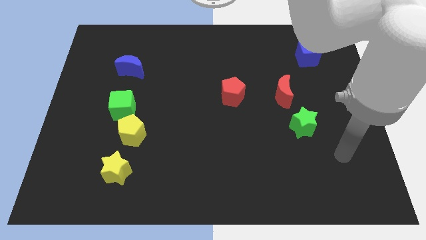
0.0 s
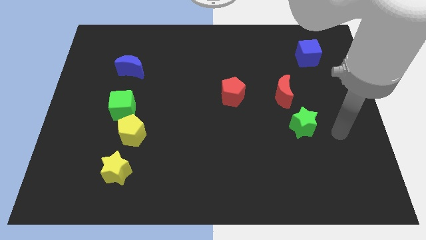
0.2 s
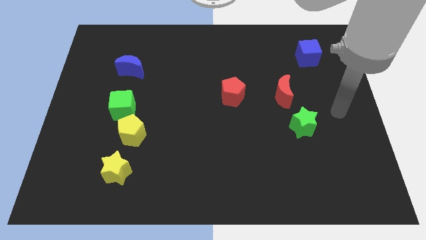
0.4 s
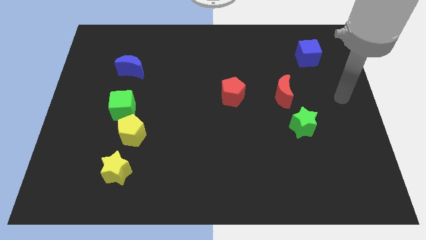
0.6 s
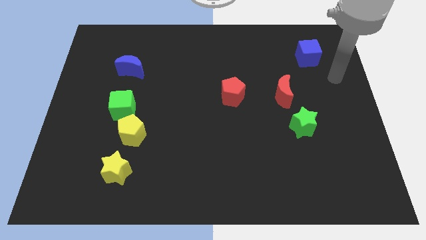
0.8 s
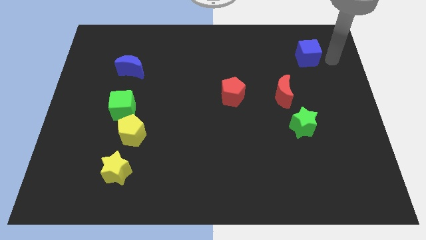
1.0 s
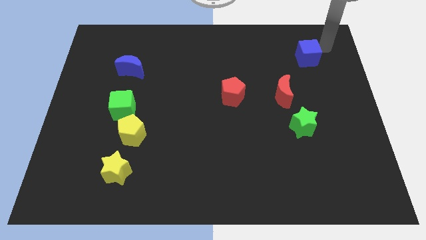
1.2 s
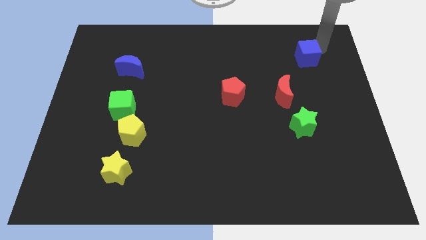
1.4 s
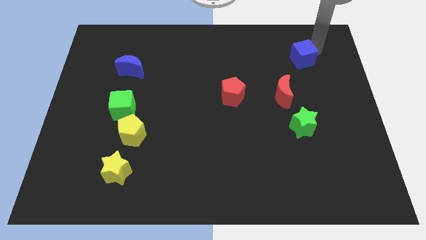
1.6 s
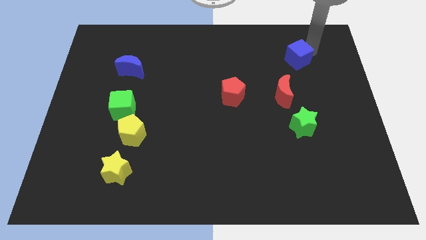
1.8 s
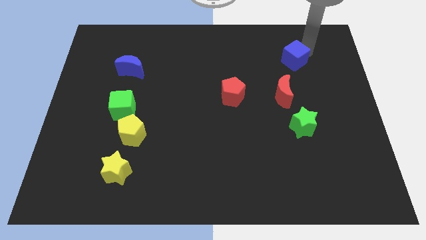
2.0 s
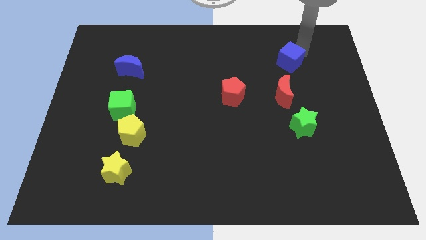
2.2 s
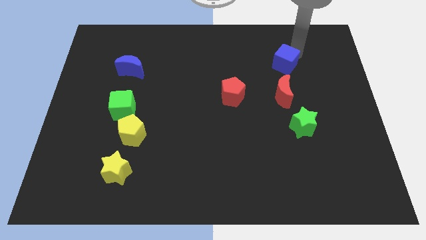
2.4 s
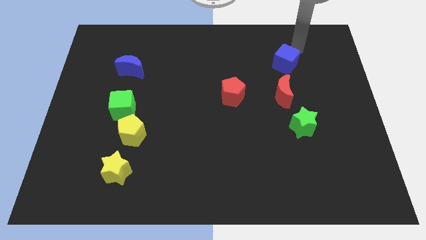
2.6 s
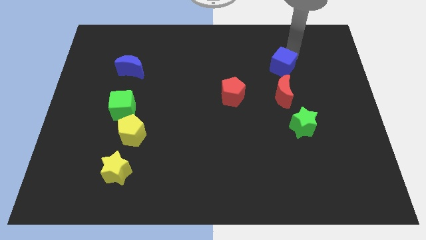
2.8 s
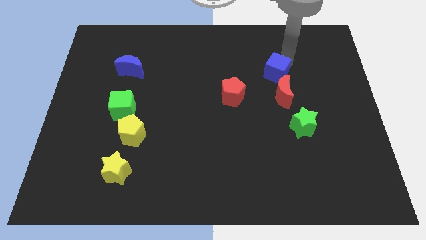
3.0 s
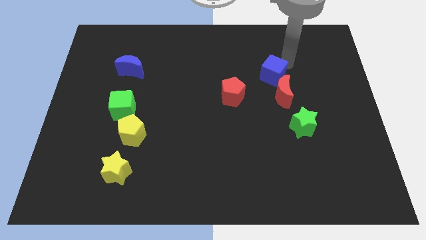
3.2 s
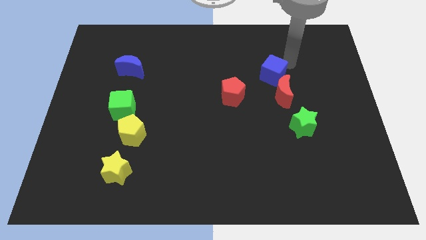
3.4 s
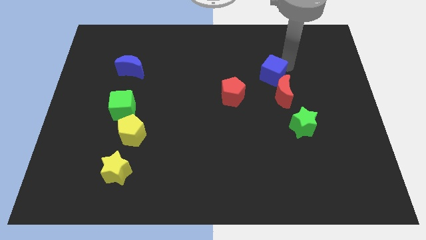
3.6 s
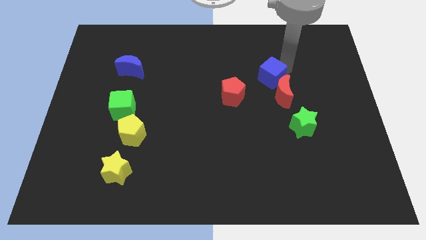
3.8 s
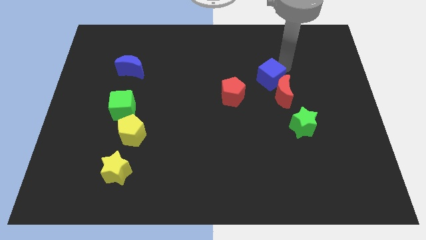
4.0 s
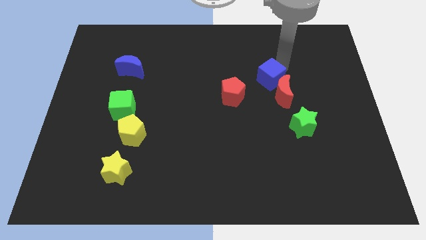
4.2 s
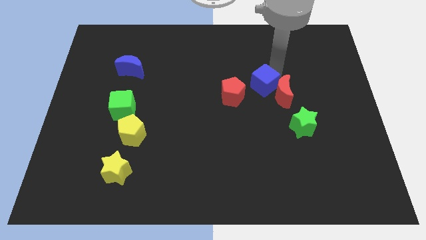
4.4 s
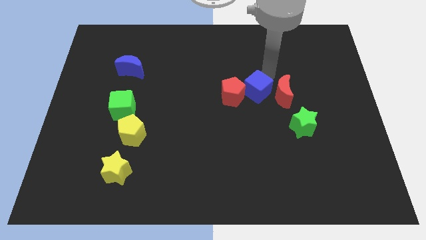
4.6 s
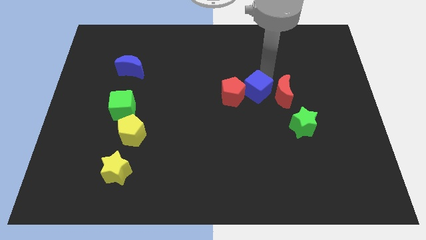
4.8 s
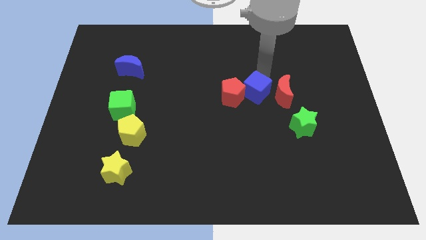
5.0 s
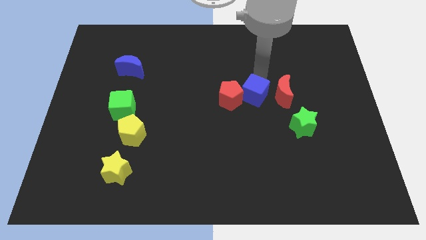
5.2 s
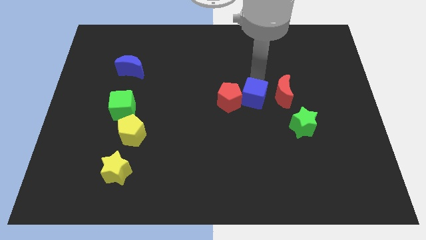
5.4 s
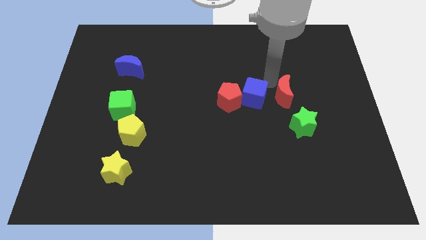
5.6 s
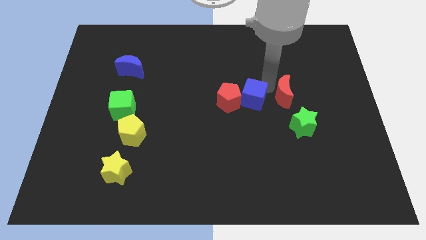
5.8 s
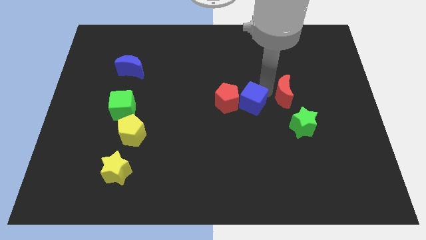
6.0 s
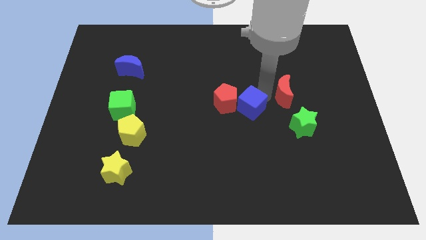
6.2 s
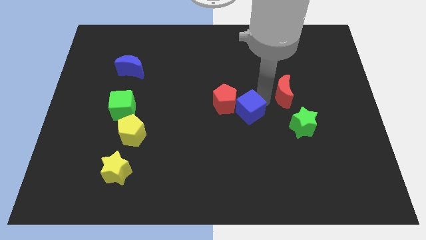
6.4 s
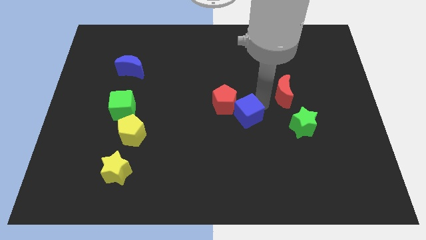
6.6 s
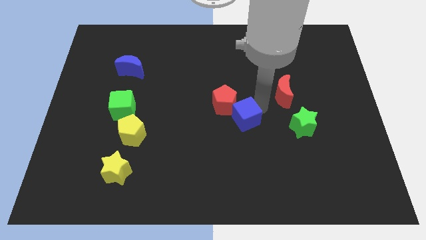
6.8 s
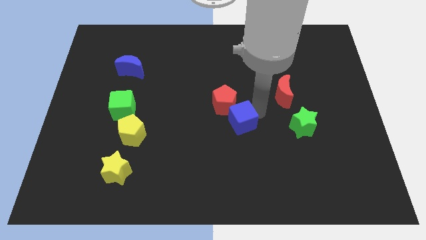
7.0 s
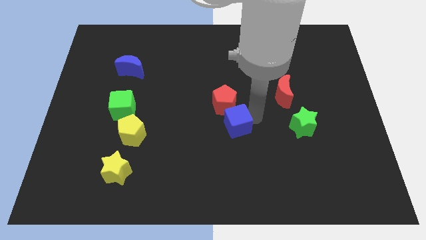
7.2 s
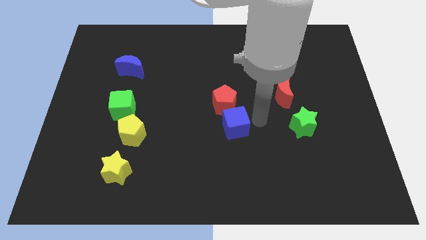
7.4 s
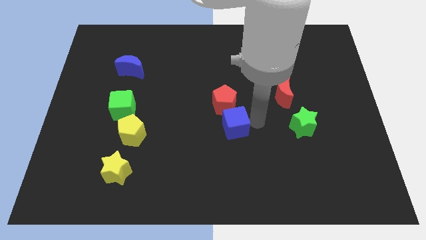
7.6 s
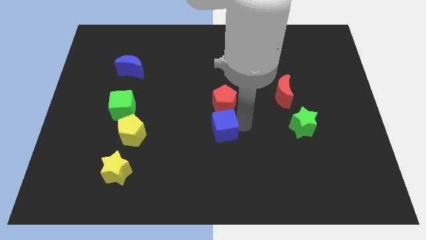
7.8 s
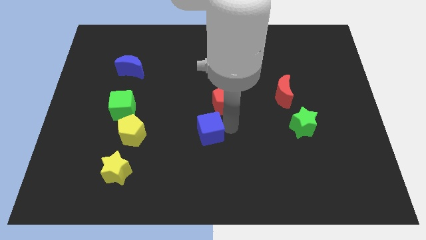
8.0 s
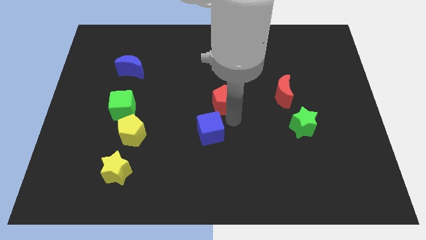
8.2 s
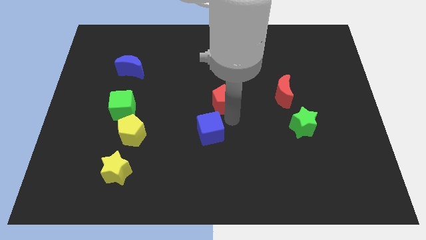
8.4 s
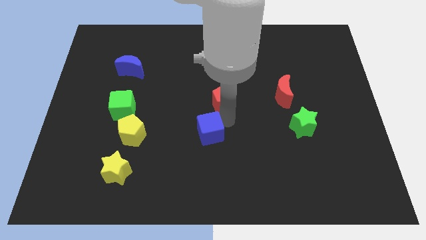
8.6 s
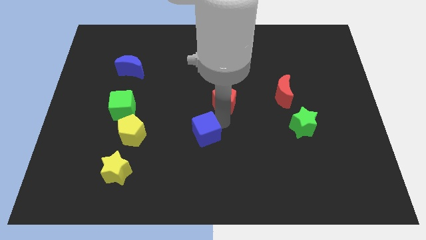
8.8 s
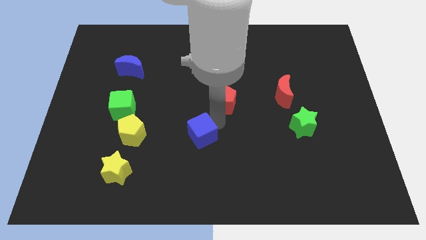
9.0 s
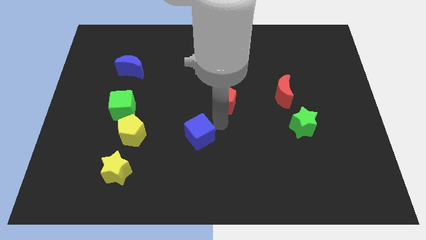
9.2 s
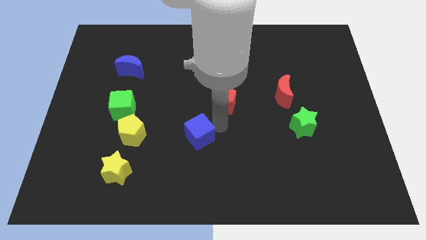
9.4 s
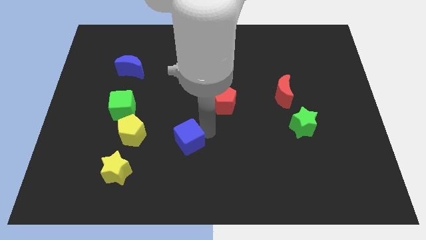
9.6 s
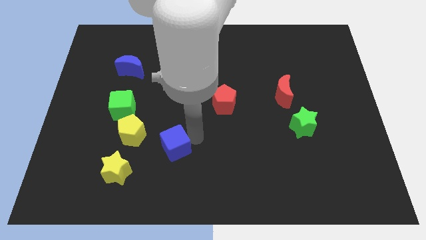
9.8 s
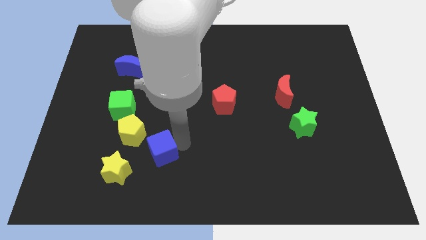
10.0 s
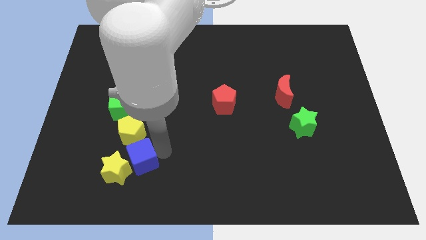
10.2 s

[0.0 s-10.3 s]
move the blue cube next to the yellow star

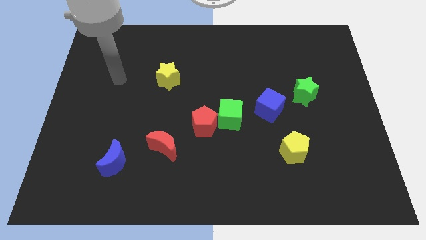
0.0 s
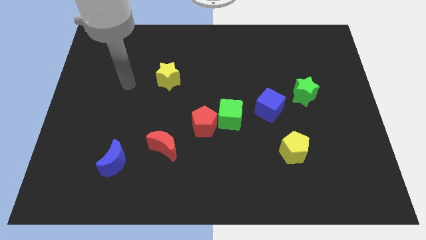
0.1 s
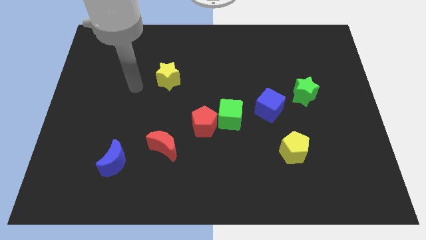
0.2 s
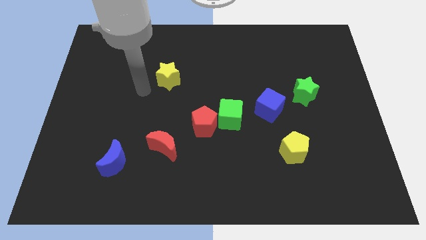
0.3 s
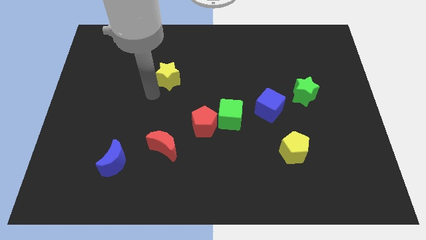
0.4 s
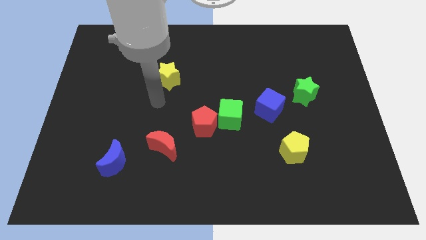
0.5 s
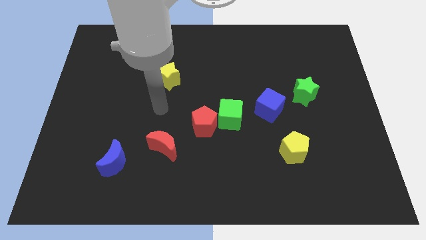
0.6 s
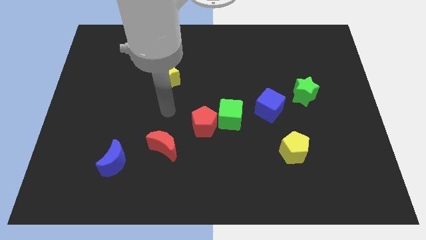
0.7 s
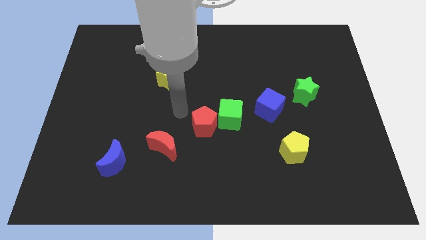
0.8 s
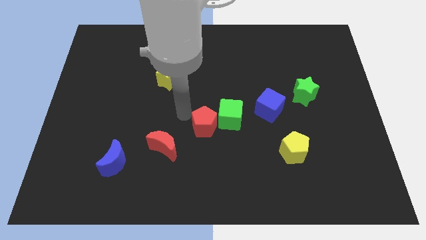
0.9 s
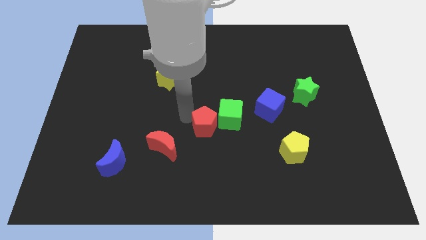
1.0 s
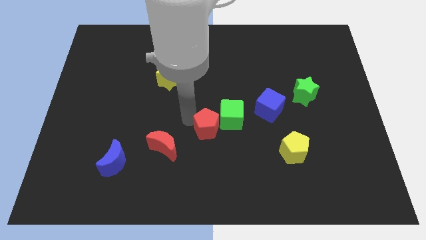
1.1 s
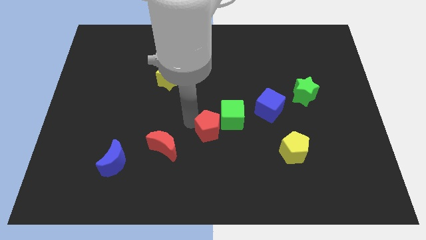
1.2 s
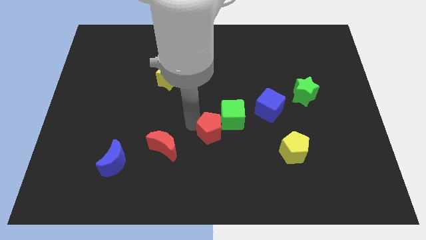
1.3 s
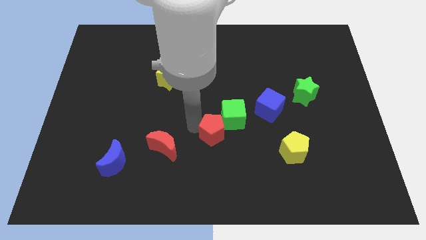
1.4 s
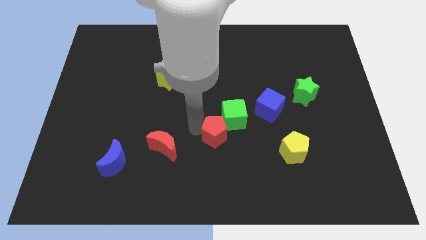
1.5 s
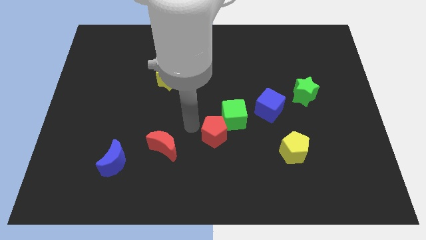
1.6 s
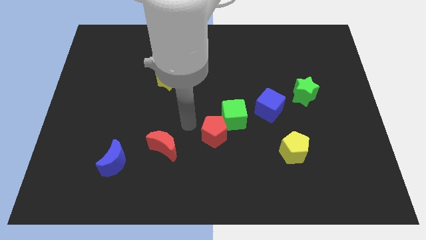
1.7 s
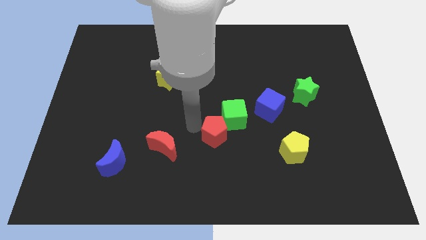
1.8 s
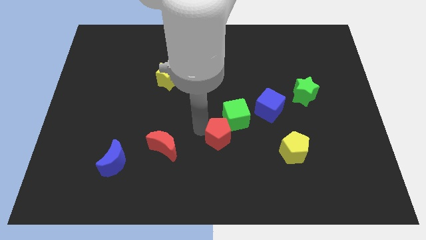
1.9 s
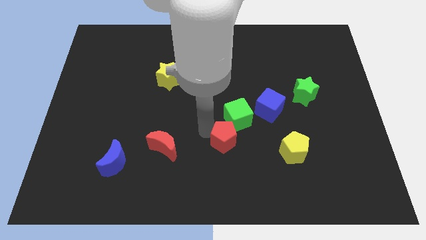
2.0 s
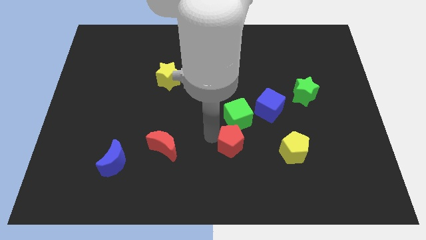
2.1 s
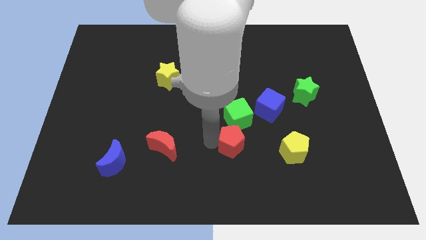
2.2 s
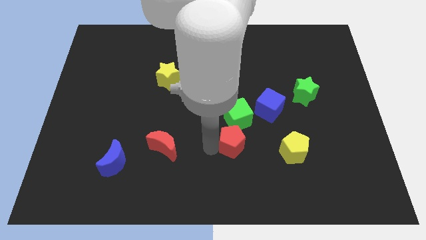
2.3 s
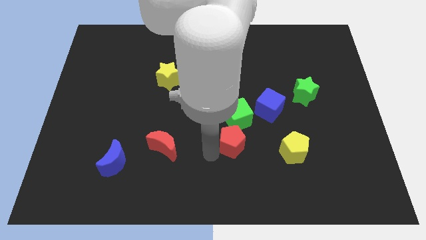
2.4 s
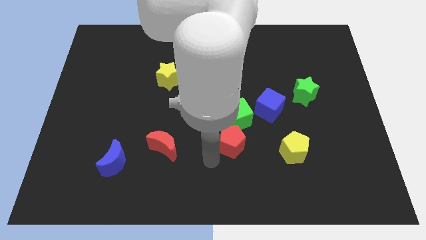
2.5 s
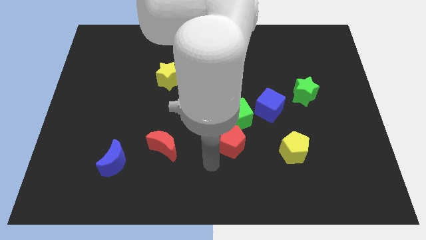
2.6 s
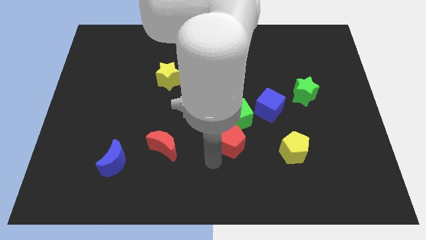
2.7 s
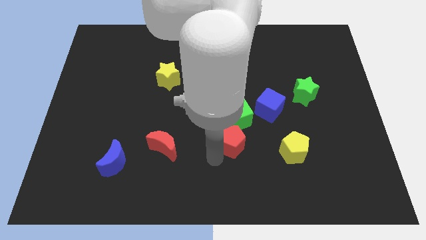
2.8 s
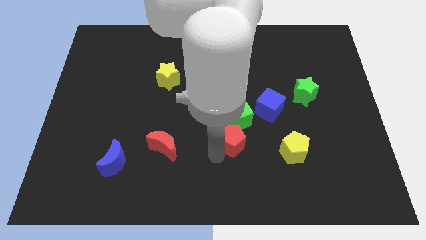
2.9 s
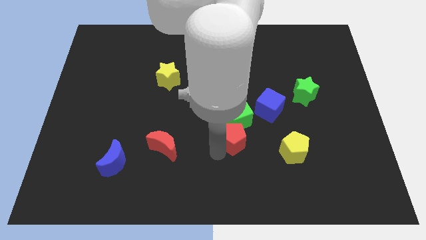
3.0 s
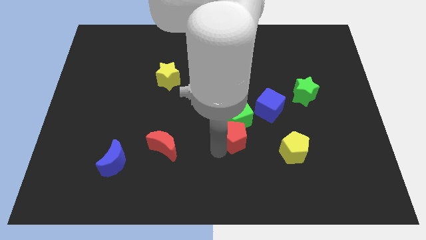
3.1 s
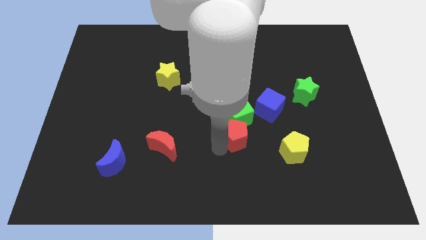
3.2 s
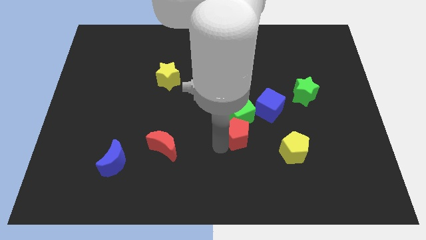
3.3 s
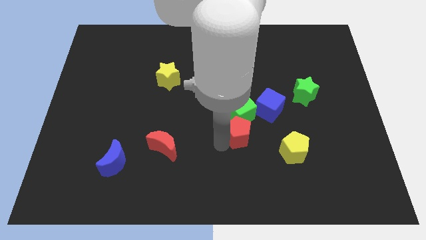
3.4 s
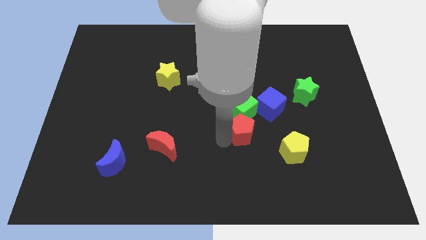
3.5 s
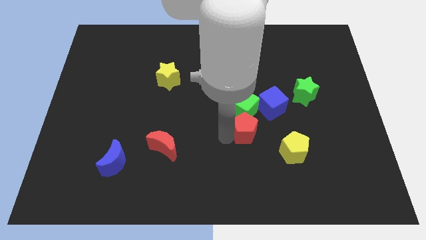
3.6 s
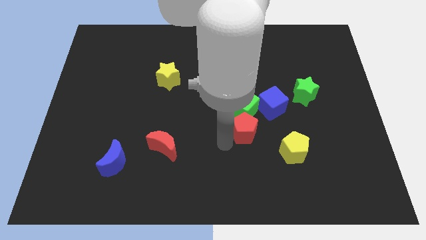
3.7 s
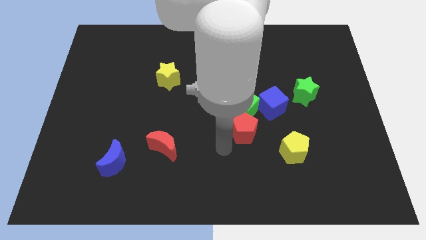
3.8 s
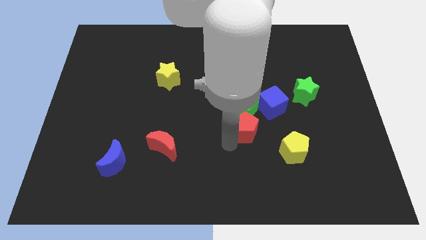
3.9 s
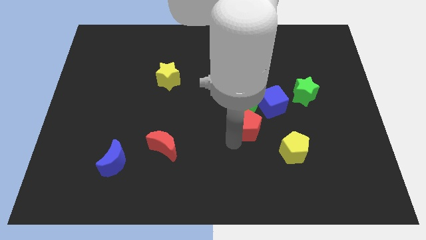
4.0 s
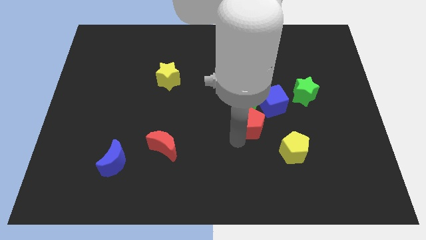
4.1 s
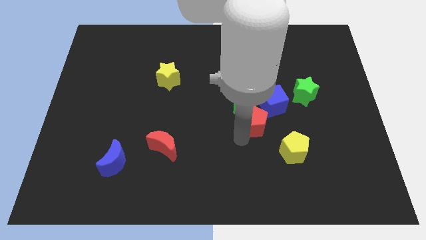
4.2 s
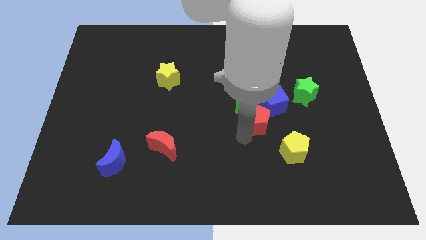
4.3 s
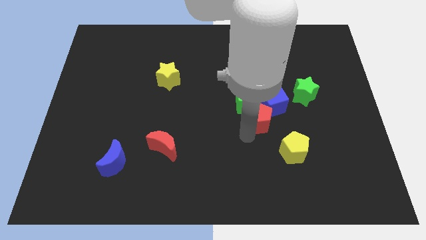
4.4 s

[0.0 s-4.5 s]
move the red pentagon close to the blue cube
